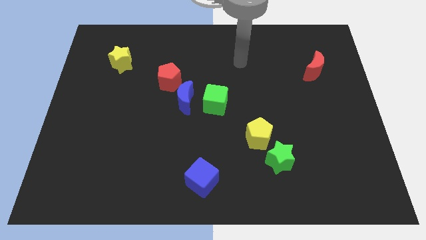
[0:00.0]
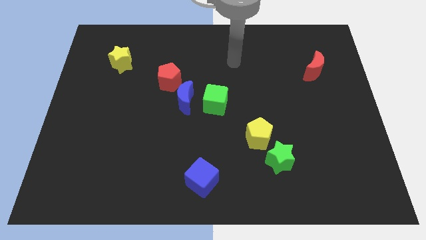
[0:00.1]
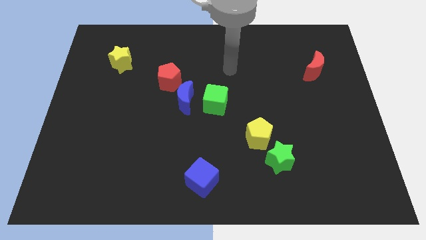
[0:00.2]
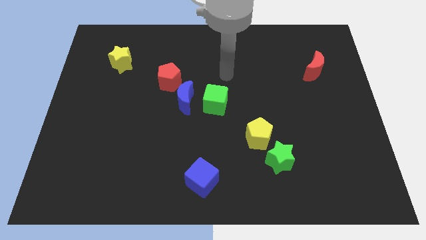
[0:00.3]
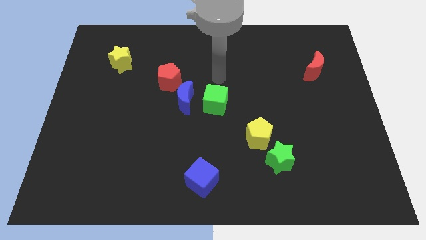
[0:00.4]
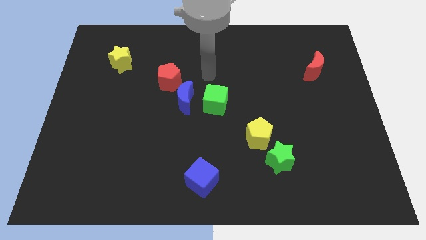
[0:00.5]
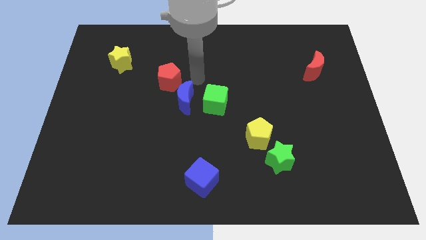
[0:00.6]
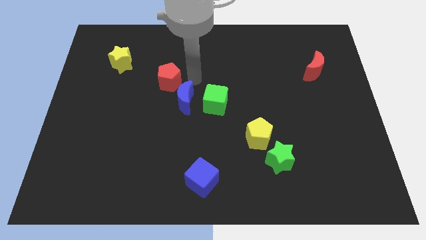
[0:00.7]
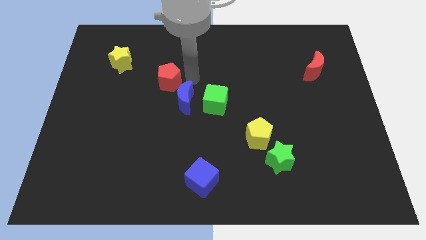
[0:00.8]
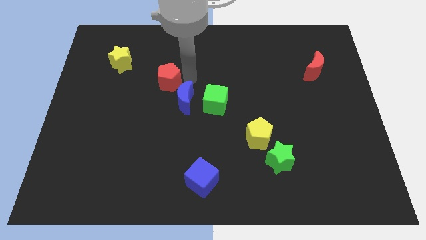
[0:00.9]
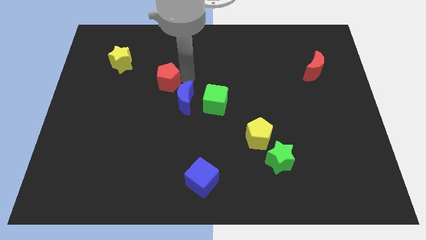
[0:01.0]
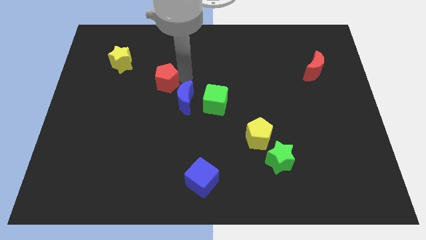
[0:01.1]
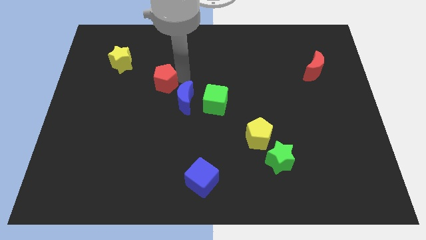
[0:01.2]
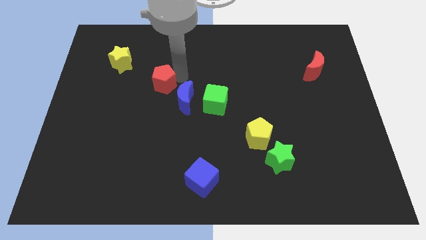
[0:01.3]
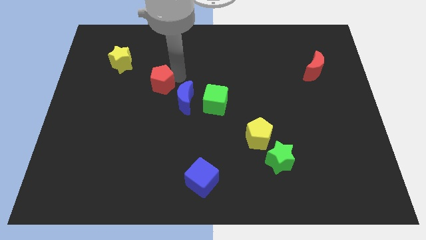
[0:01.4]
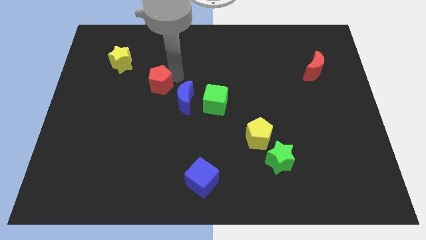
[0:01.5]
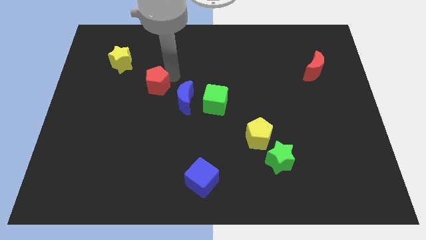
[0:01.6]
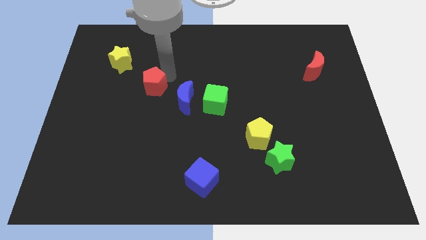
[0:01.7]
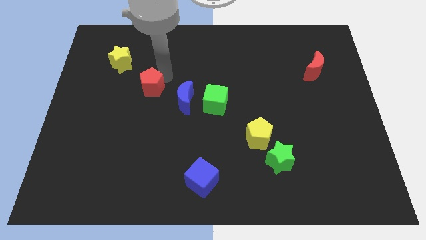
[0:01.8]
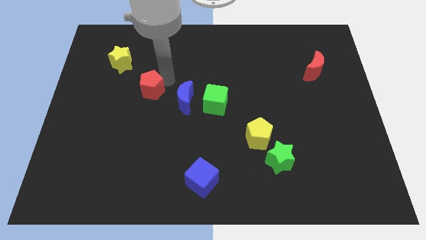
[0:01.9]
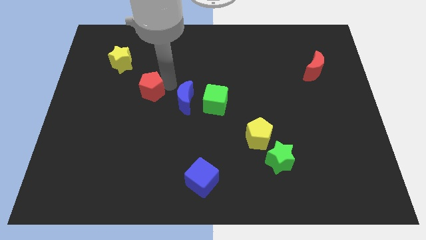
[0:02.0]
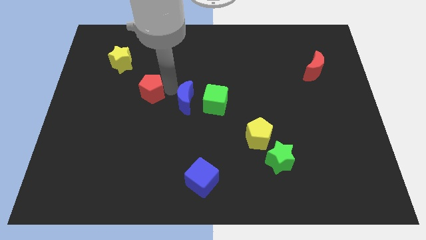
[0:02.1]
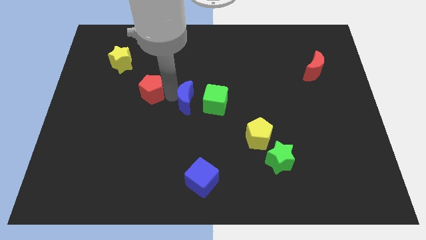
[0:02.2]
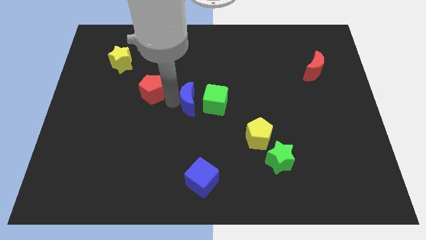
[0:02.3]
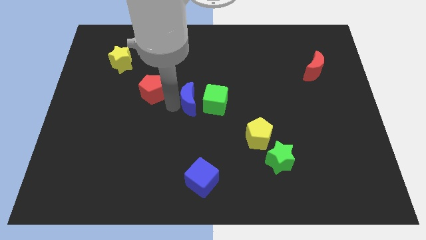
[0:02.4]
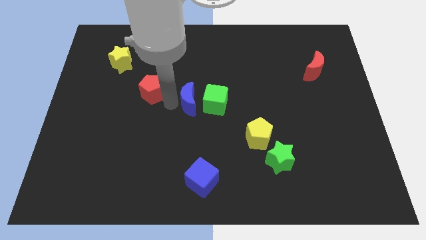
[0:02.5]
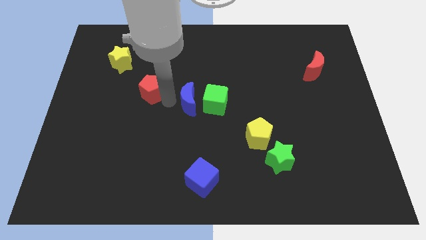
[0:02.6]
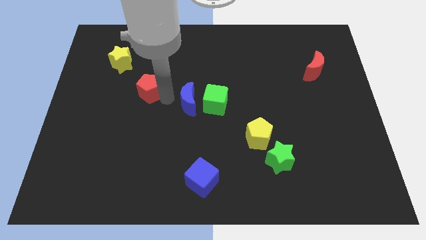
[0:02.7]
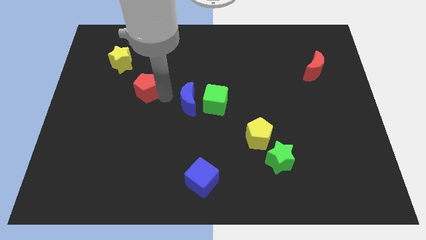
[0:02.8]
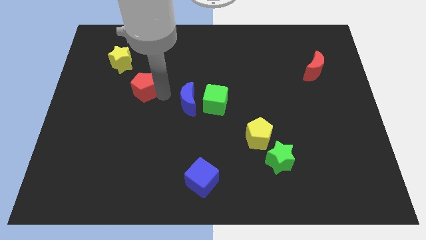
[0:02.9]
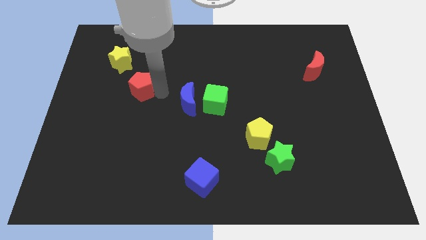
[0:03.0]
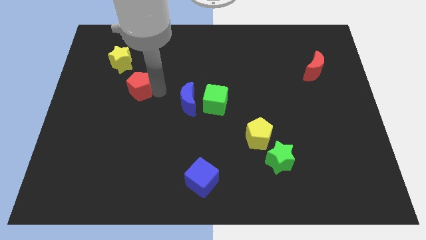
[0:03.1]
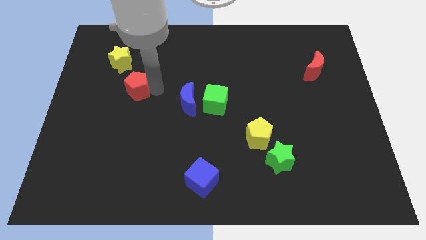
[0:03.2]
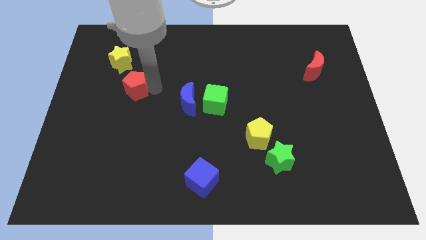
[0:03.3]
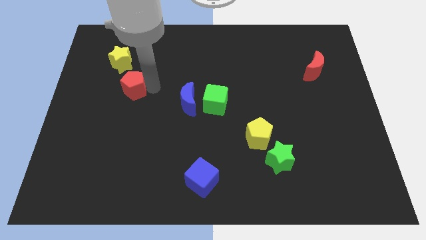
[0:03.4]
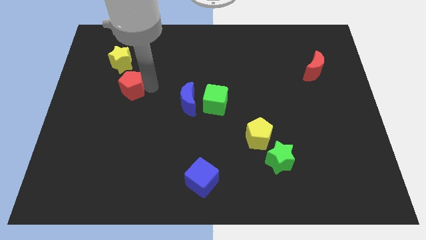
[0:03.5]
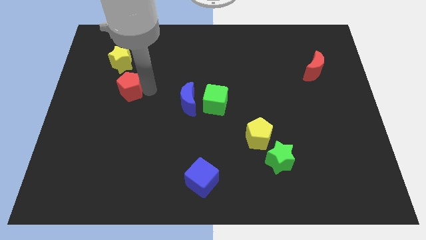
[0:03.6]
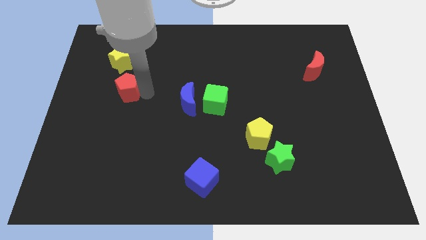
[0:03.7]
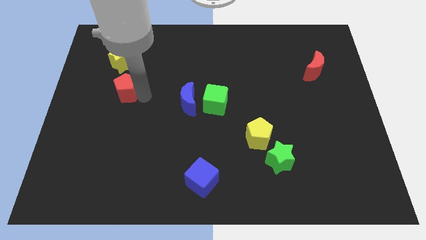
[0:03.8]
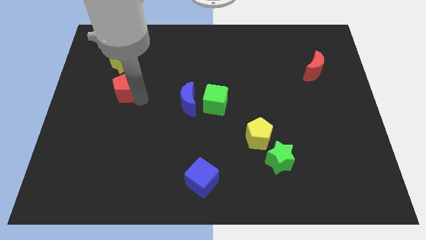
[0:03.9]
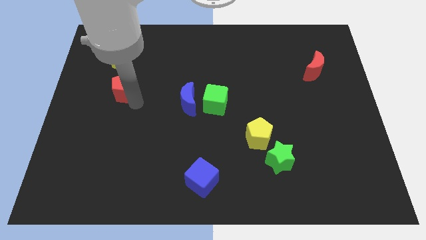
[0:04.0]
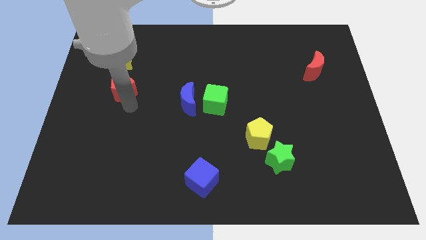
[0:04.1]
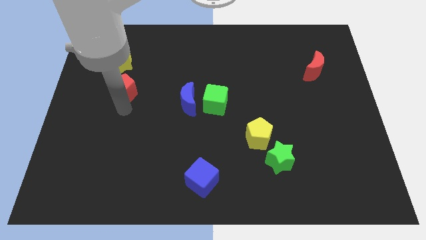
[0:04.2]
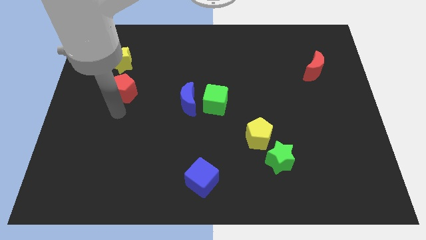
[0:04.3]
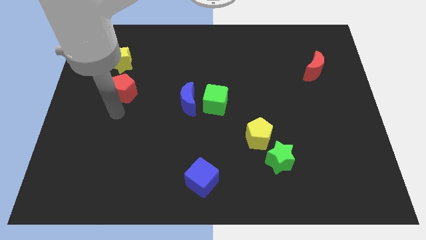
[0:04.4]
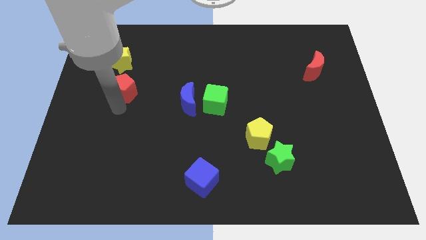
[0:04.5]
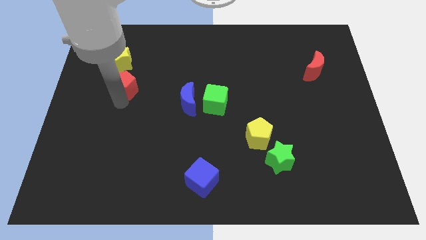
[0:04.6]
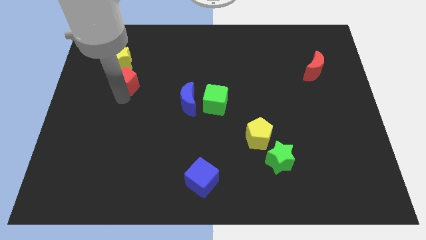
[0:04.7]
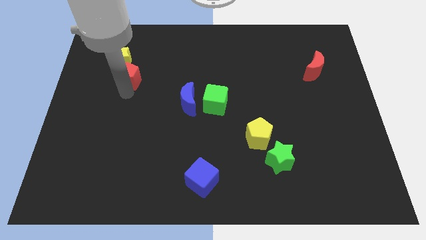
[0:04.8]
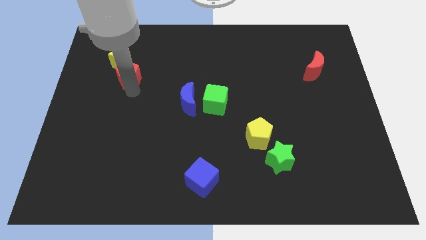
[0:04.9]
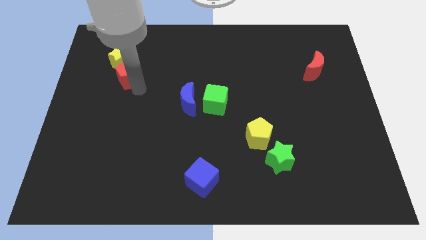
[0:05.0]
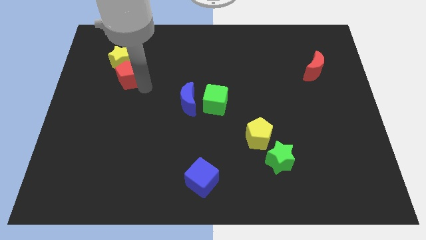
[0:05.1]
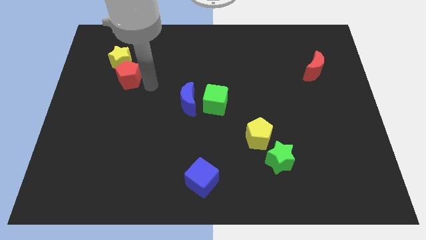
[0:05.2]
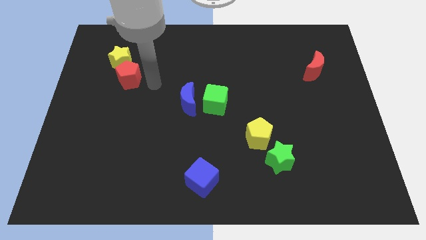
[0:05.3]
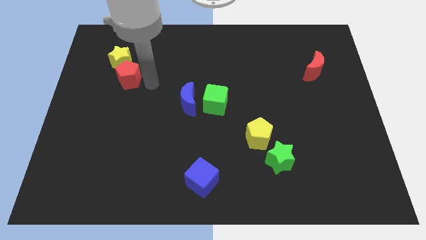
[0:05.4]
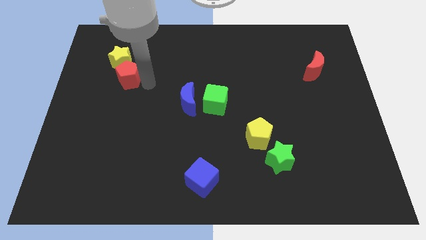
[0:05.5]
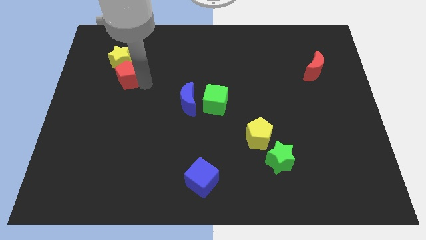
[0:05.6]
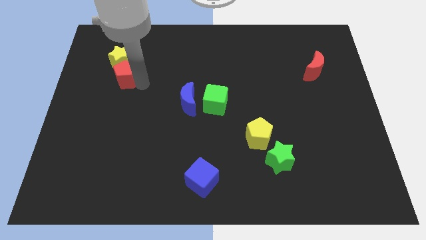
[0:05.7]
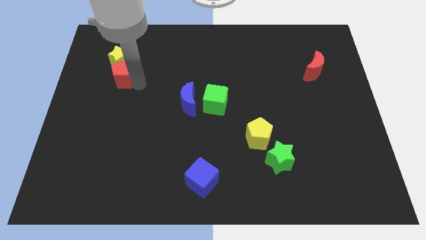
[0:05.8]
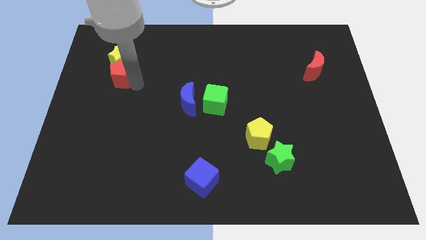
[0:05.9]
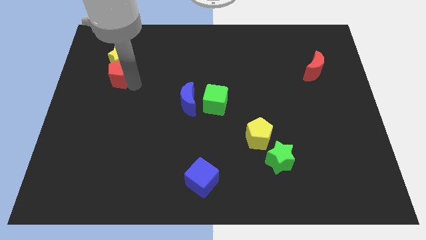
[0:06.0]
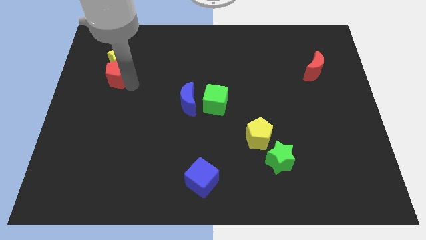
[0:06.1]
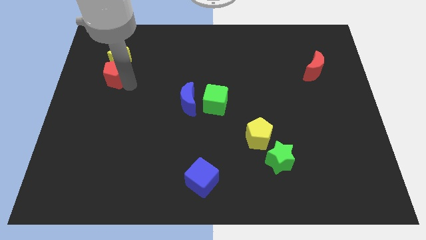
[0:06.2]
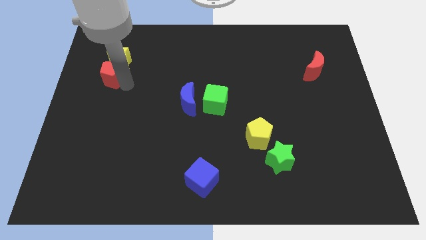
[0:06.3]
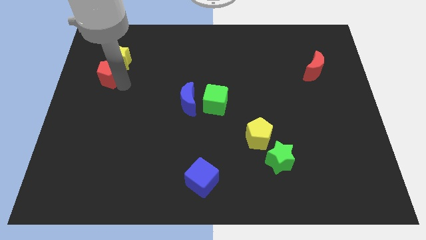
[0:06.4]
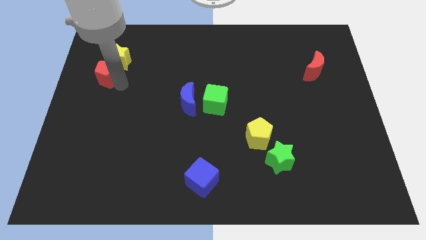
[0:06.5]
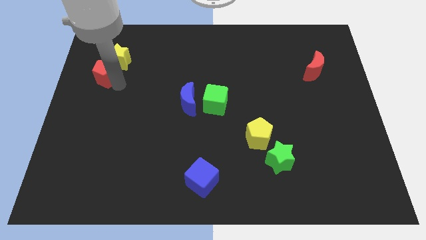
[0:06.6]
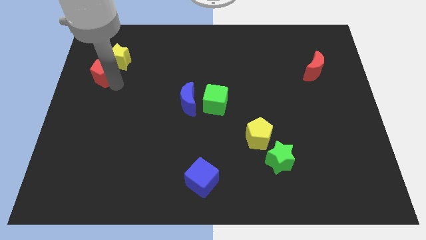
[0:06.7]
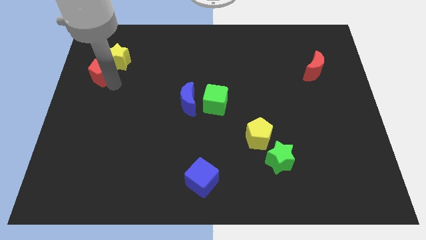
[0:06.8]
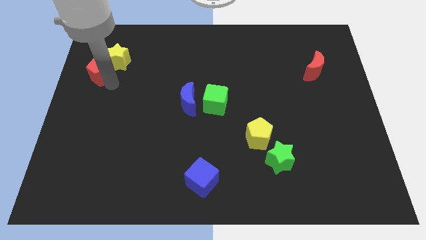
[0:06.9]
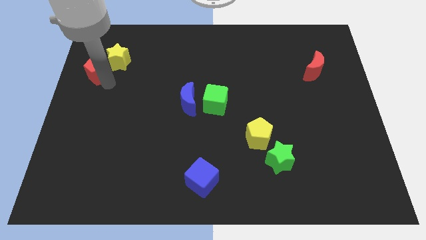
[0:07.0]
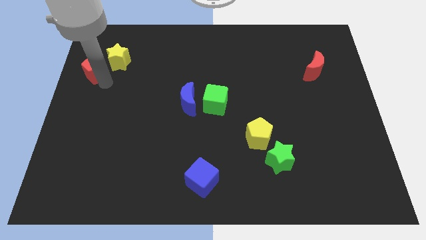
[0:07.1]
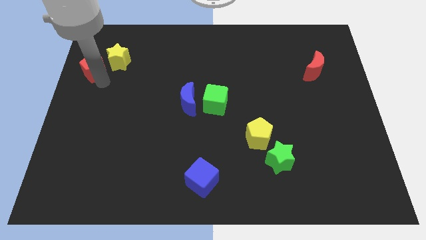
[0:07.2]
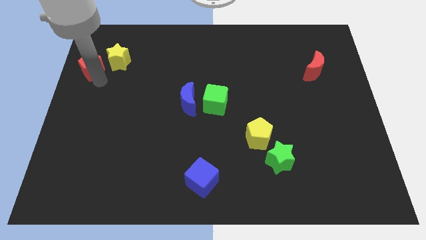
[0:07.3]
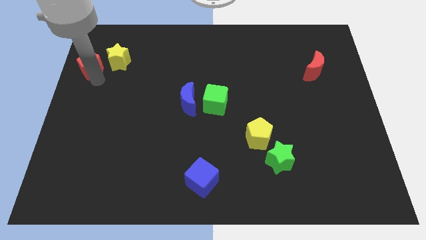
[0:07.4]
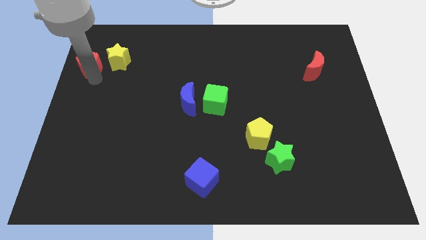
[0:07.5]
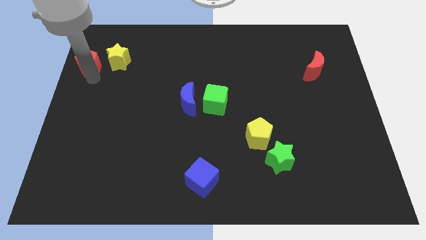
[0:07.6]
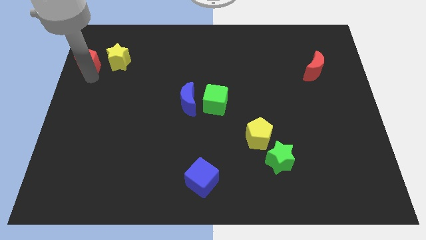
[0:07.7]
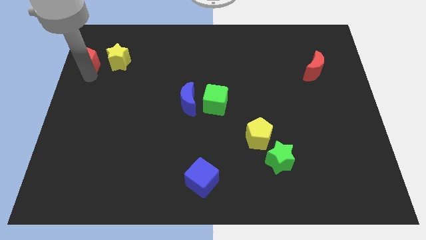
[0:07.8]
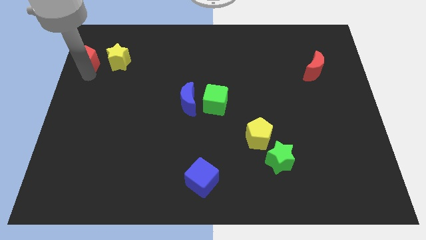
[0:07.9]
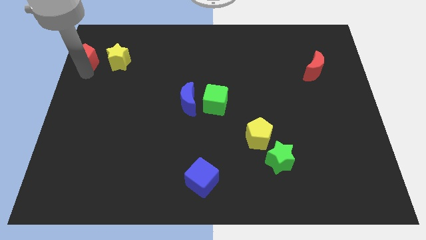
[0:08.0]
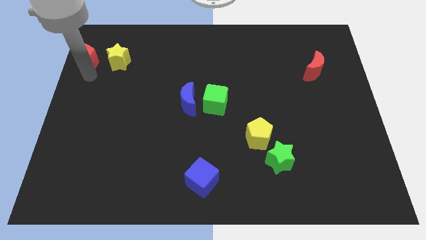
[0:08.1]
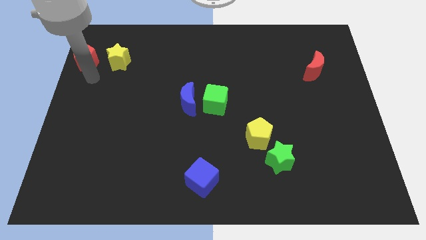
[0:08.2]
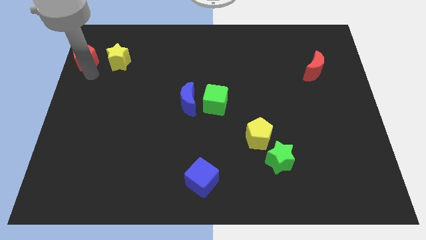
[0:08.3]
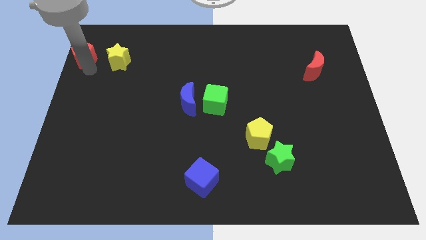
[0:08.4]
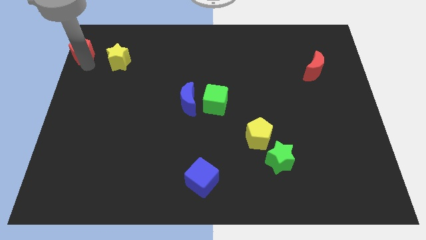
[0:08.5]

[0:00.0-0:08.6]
put the red pentagon to the top left of the board
